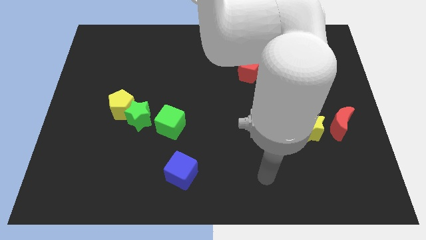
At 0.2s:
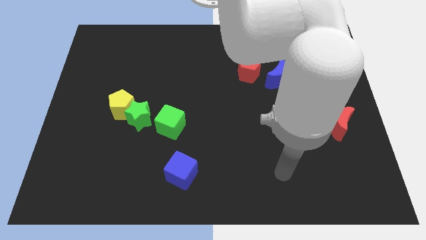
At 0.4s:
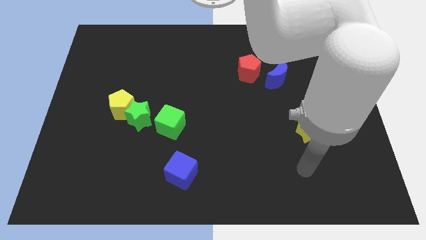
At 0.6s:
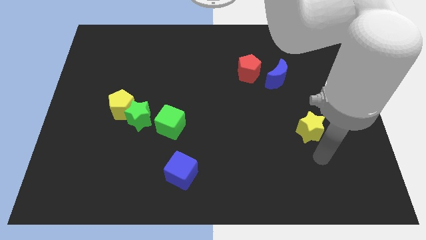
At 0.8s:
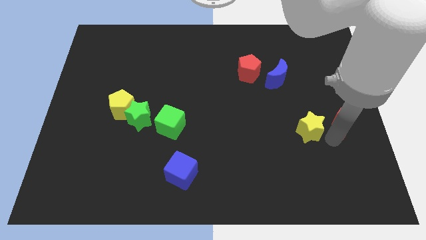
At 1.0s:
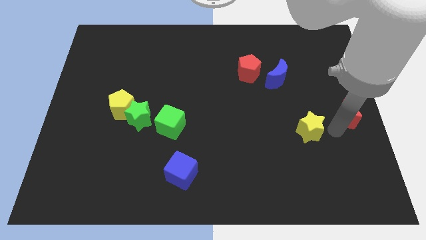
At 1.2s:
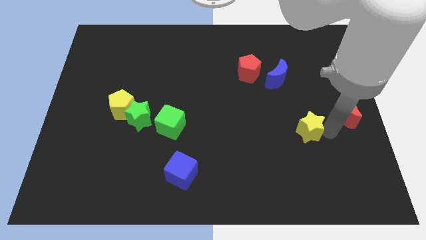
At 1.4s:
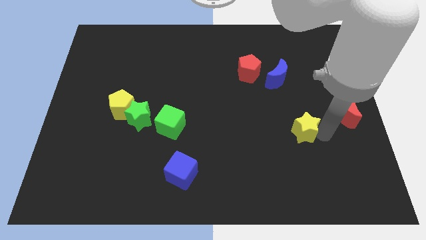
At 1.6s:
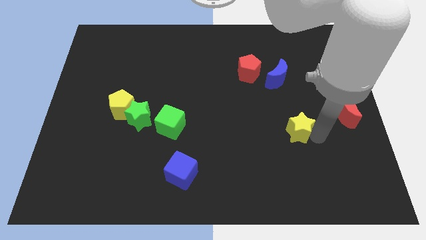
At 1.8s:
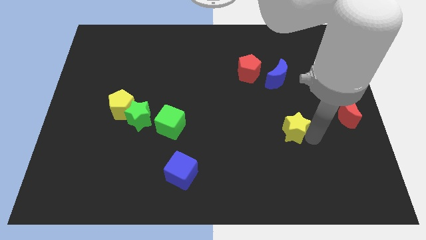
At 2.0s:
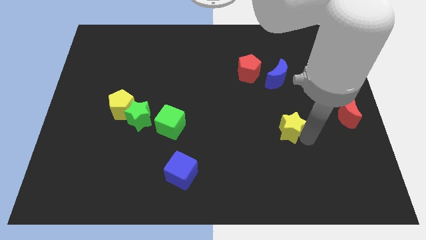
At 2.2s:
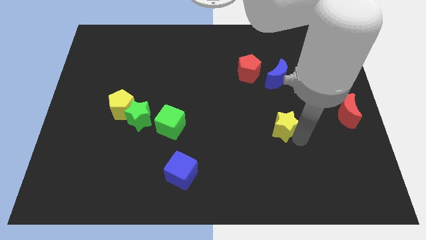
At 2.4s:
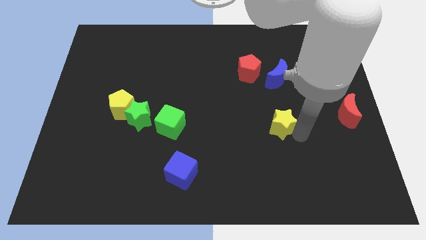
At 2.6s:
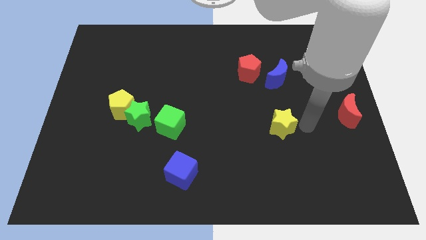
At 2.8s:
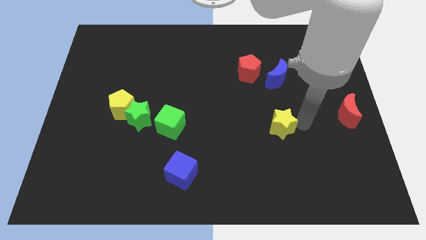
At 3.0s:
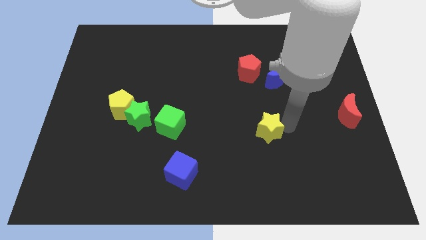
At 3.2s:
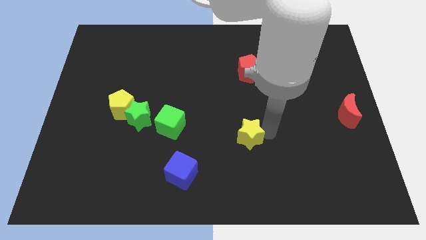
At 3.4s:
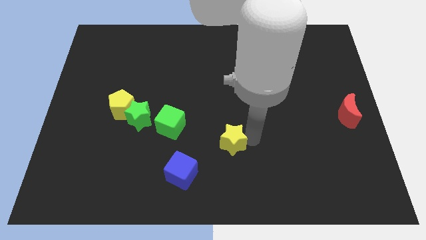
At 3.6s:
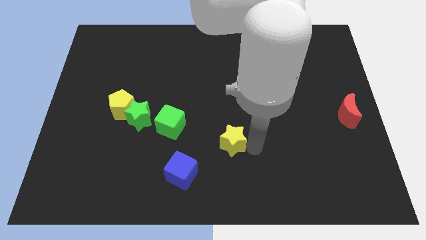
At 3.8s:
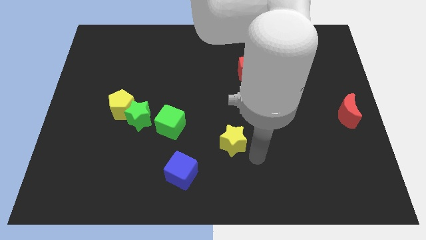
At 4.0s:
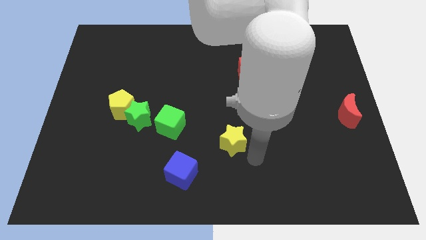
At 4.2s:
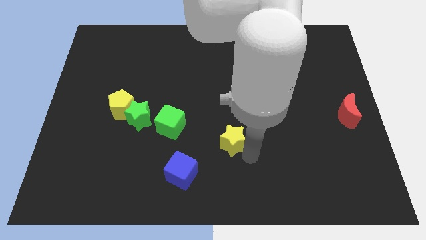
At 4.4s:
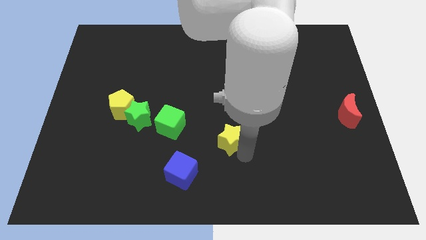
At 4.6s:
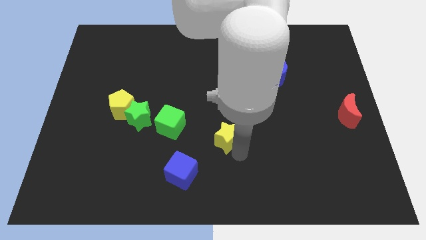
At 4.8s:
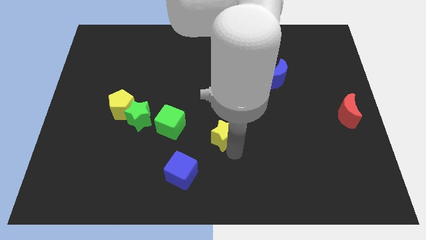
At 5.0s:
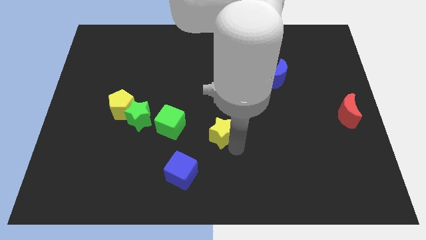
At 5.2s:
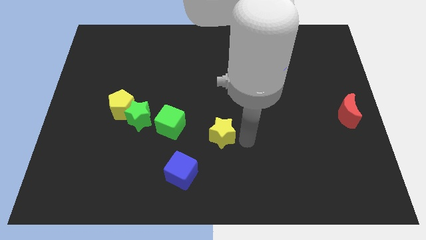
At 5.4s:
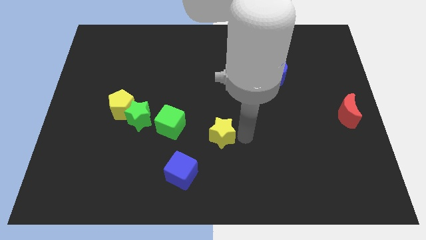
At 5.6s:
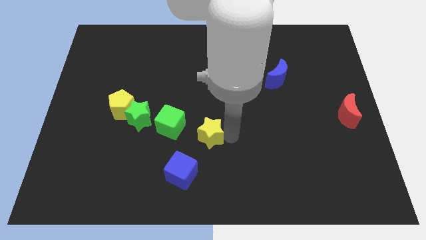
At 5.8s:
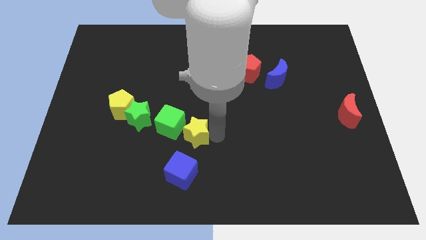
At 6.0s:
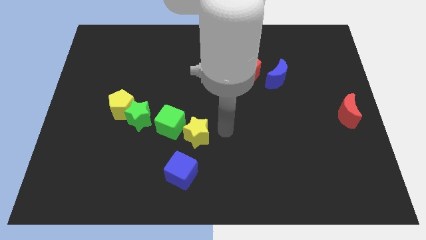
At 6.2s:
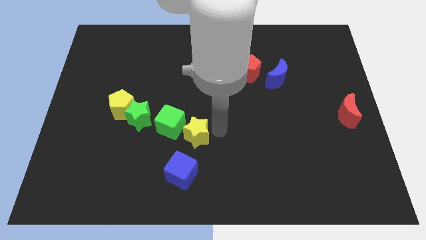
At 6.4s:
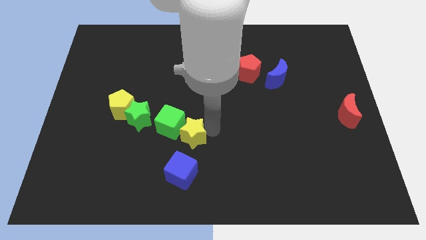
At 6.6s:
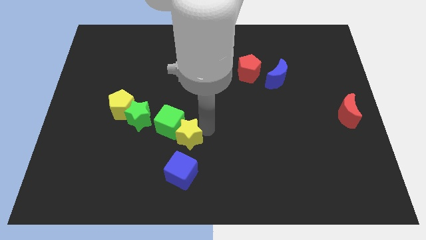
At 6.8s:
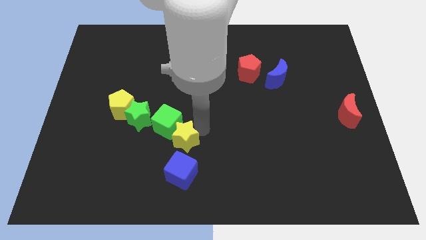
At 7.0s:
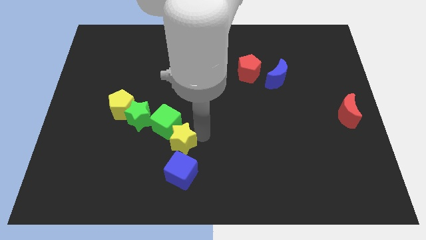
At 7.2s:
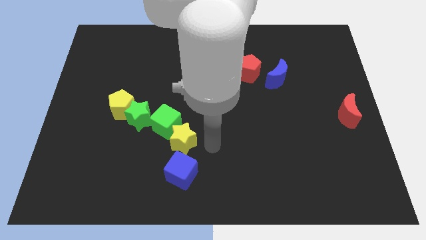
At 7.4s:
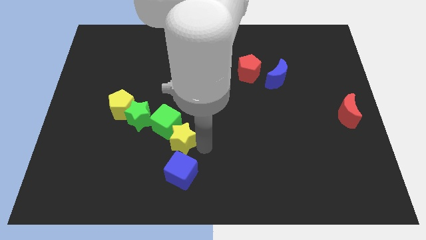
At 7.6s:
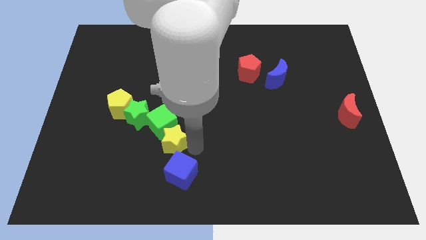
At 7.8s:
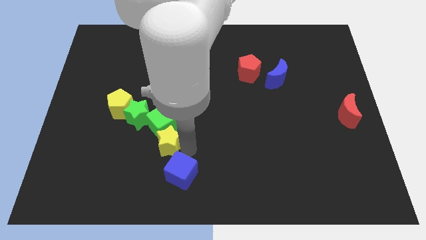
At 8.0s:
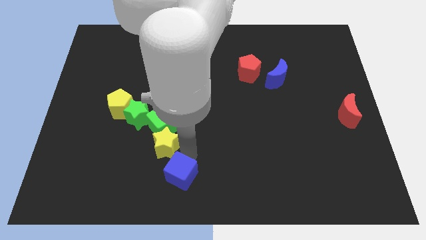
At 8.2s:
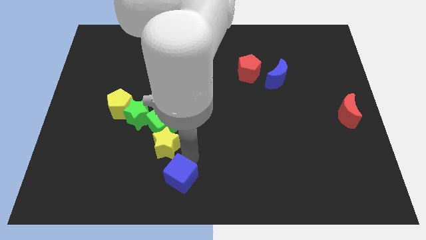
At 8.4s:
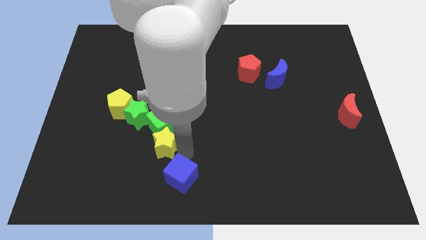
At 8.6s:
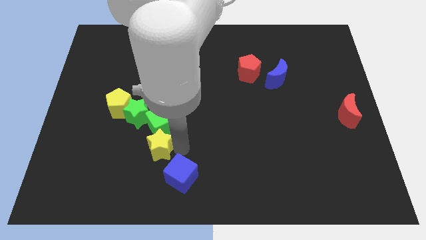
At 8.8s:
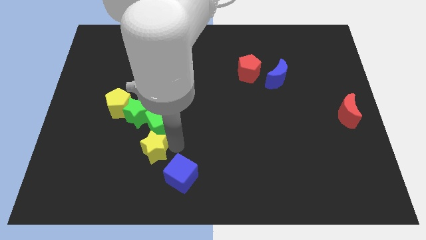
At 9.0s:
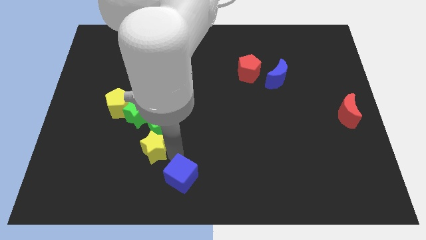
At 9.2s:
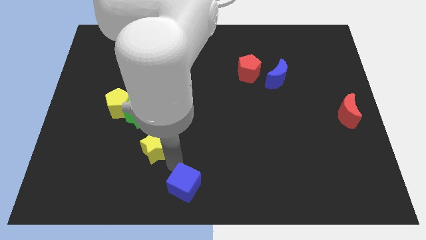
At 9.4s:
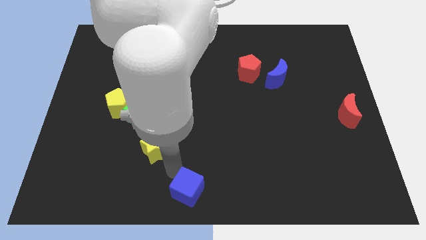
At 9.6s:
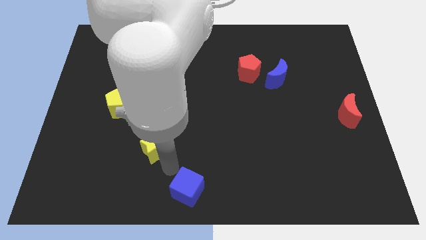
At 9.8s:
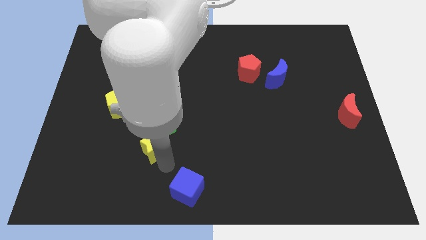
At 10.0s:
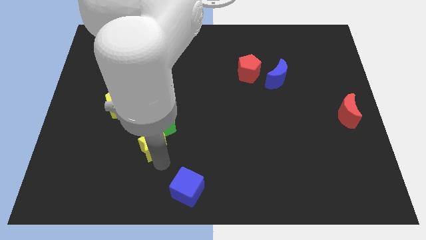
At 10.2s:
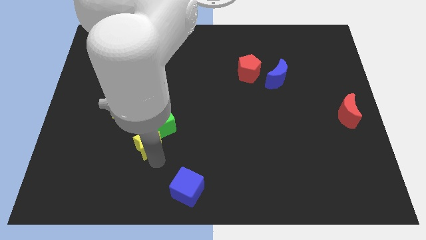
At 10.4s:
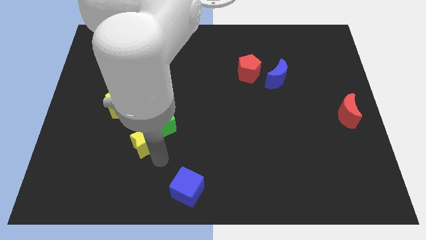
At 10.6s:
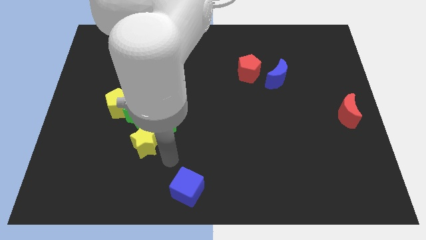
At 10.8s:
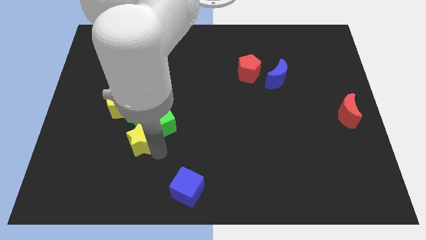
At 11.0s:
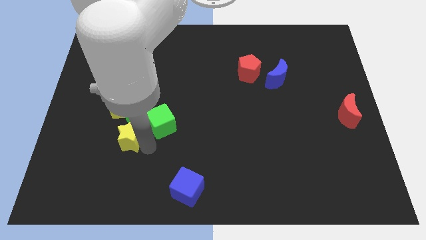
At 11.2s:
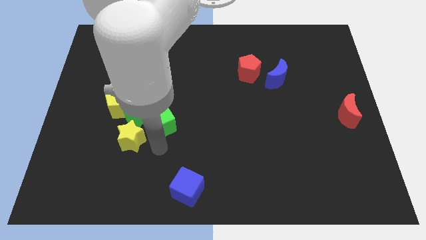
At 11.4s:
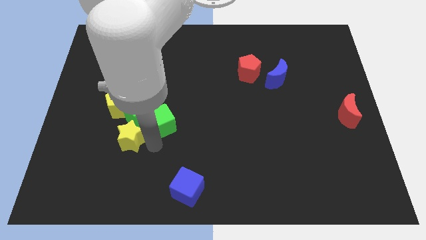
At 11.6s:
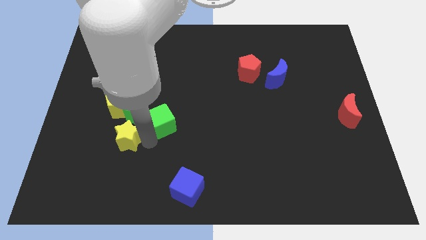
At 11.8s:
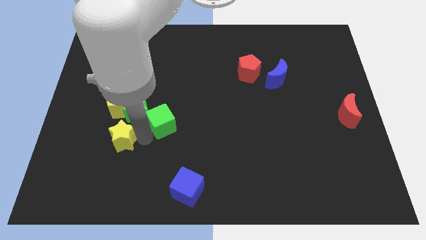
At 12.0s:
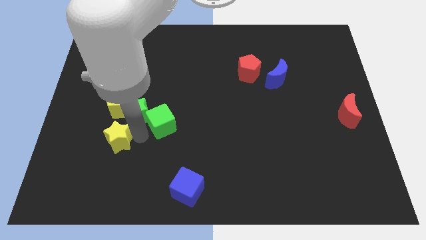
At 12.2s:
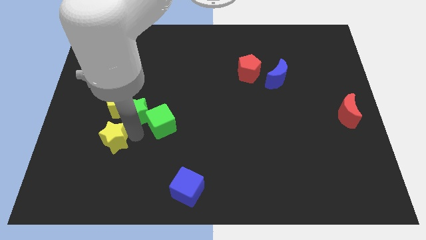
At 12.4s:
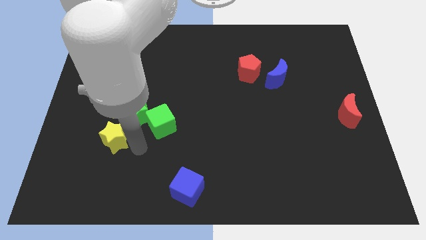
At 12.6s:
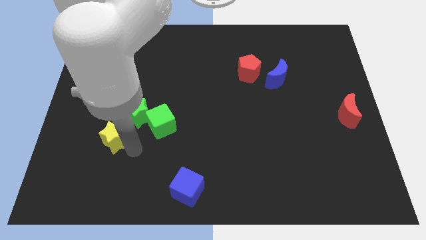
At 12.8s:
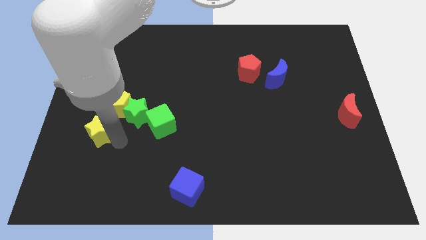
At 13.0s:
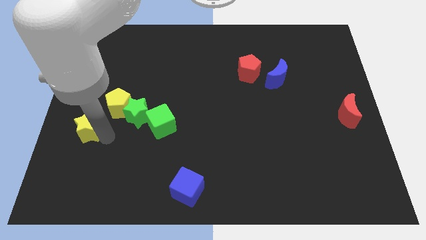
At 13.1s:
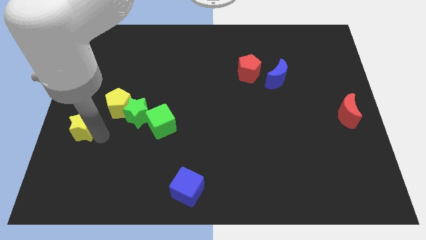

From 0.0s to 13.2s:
move the yellow star to the center left

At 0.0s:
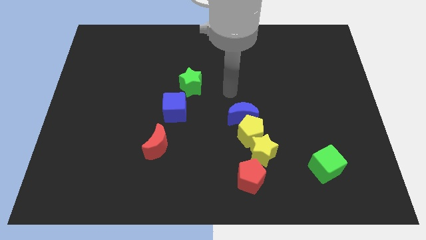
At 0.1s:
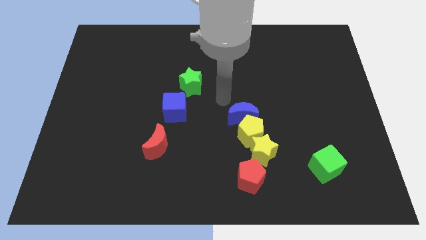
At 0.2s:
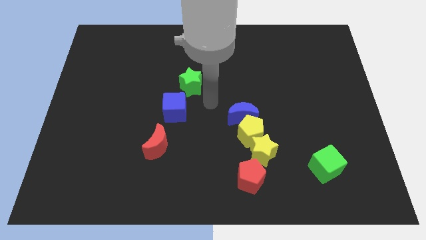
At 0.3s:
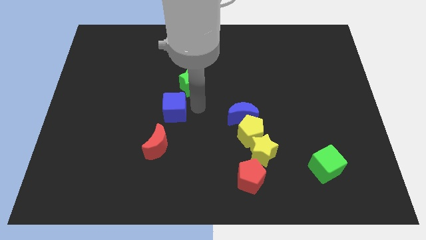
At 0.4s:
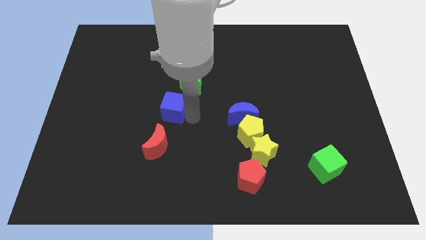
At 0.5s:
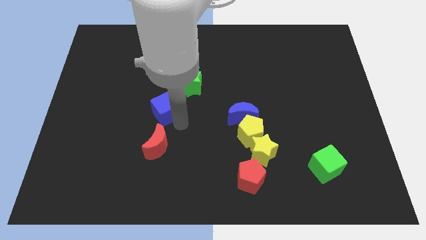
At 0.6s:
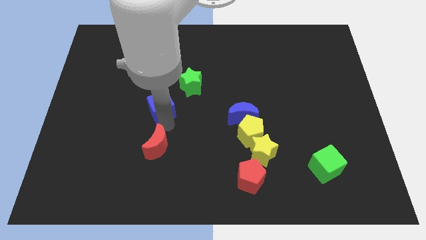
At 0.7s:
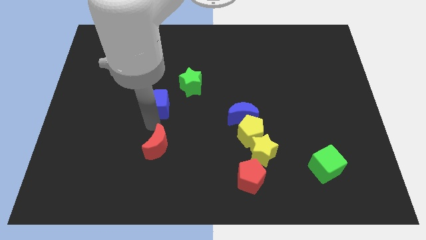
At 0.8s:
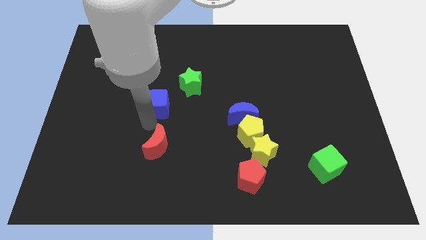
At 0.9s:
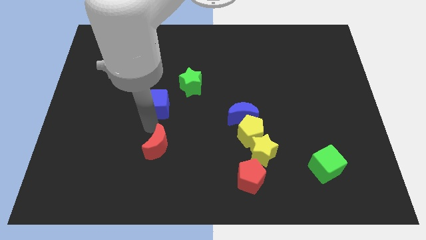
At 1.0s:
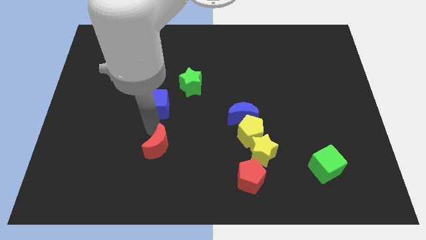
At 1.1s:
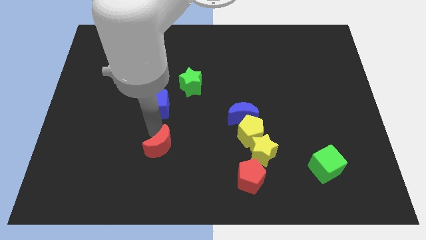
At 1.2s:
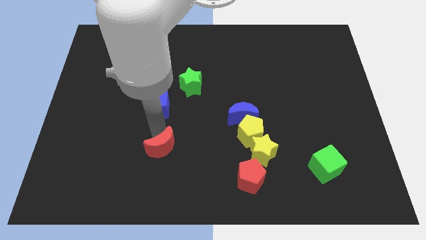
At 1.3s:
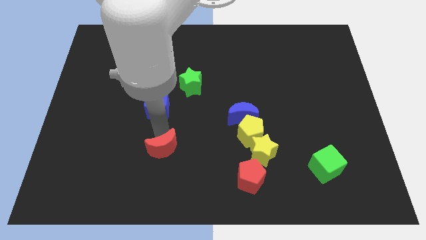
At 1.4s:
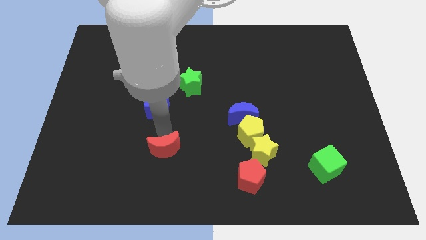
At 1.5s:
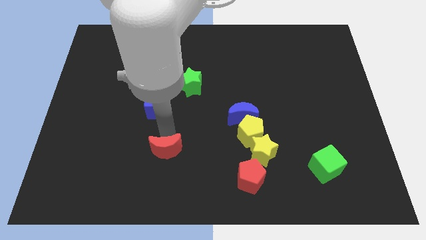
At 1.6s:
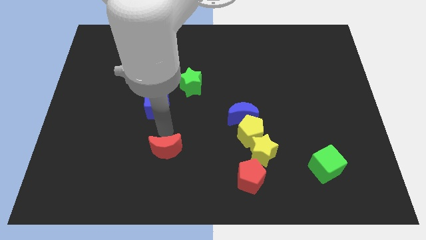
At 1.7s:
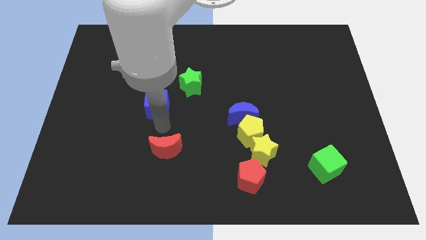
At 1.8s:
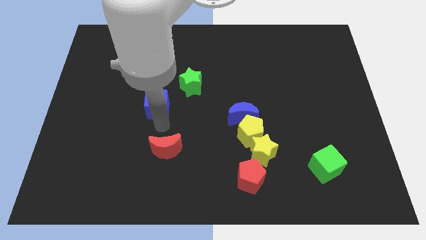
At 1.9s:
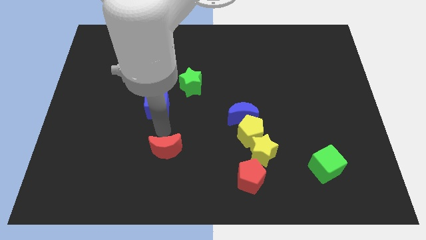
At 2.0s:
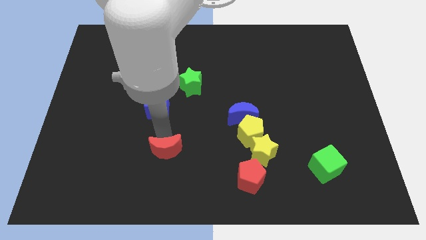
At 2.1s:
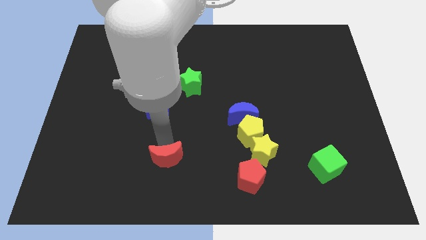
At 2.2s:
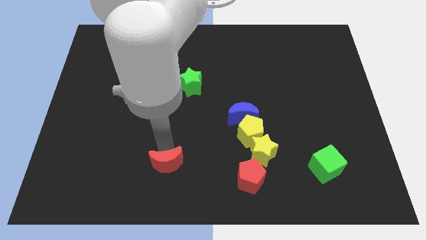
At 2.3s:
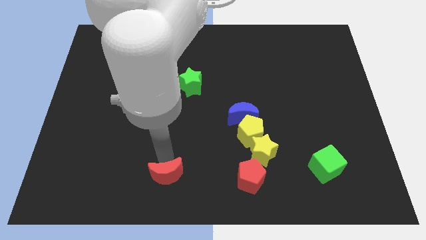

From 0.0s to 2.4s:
put the red moon to the bottom
